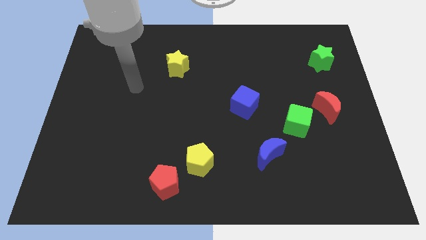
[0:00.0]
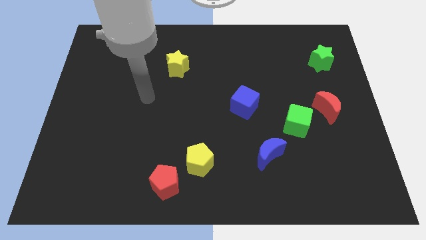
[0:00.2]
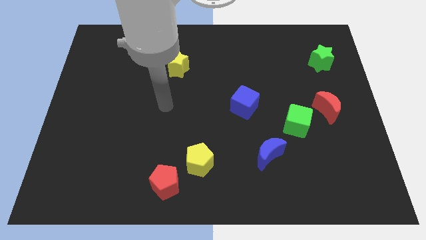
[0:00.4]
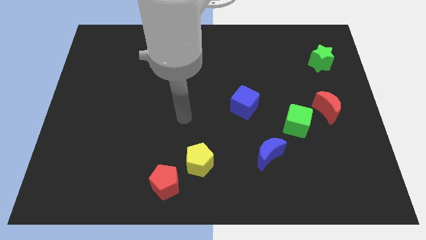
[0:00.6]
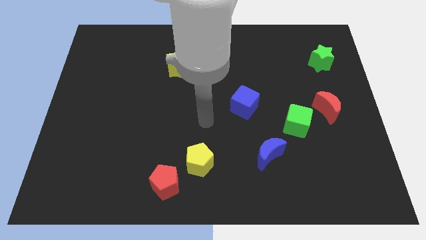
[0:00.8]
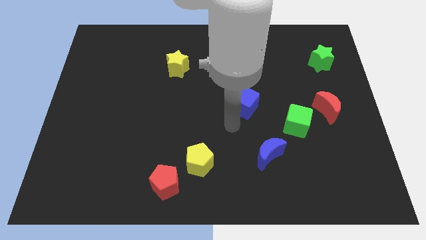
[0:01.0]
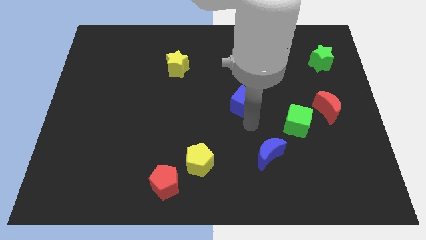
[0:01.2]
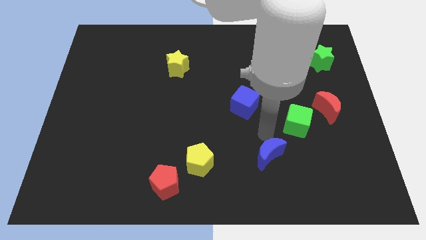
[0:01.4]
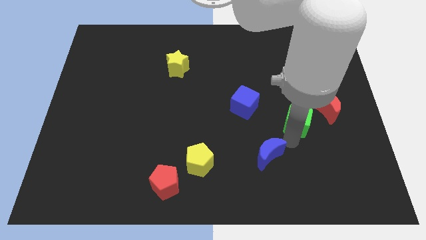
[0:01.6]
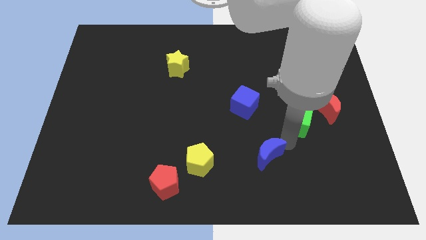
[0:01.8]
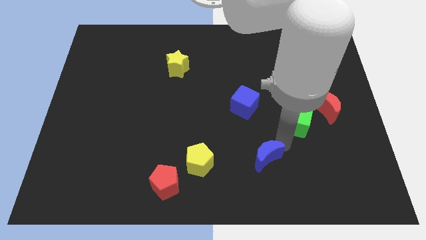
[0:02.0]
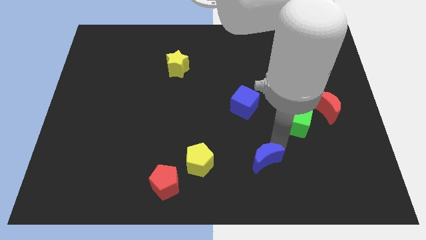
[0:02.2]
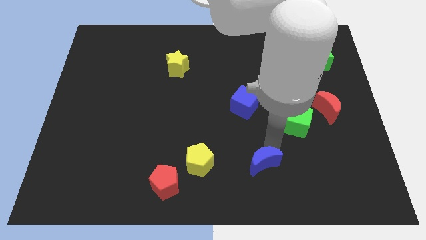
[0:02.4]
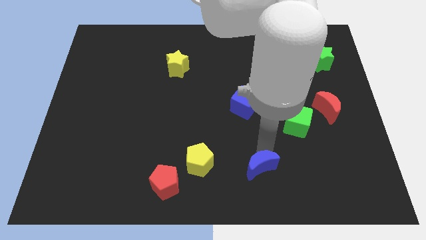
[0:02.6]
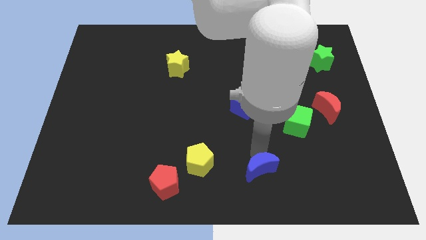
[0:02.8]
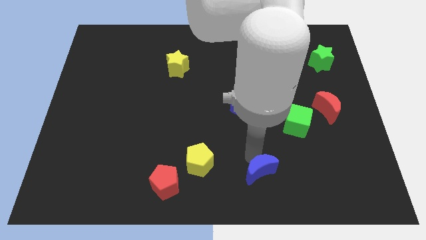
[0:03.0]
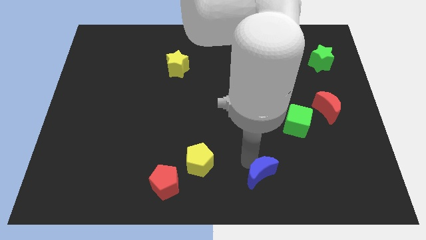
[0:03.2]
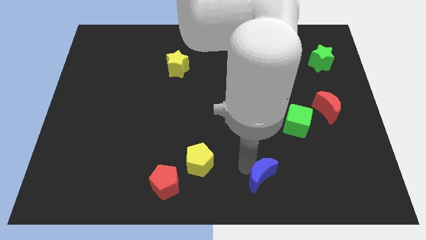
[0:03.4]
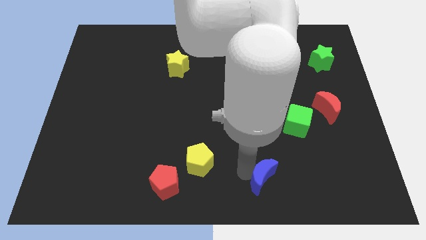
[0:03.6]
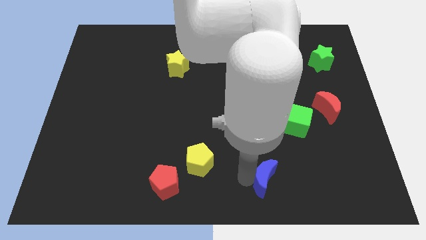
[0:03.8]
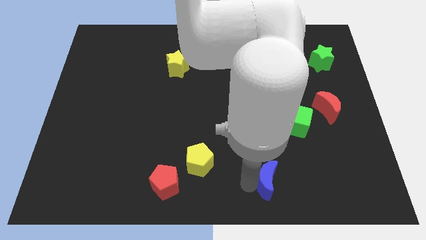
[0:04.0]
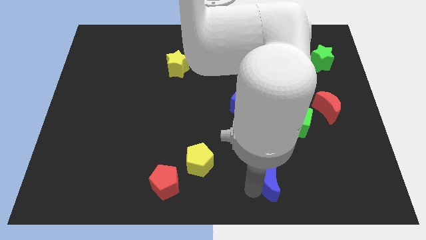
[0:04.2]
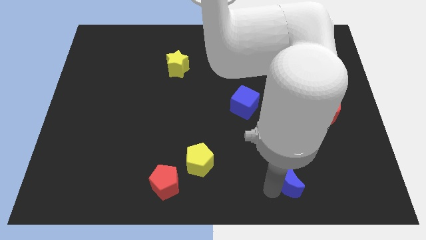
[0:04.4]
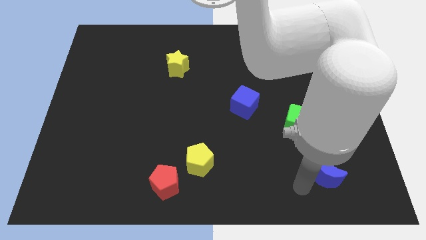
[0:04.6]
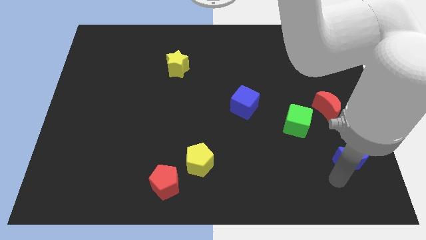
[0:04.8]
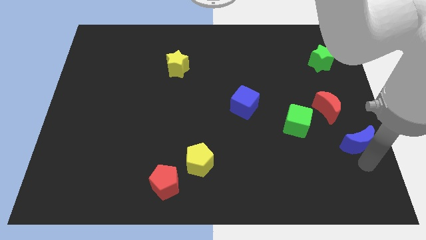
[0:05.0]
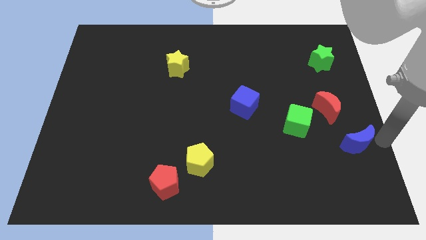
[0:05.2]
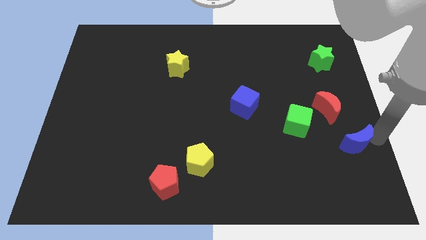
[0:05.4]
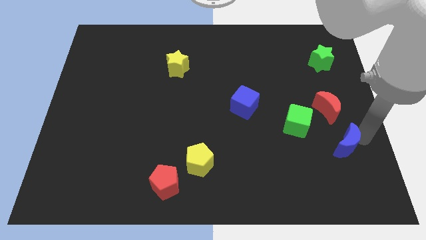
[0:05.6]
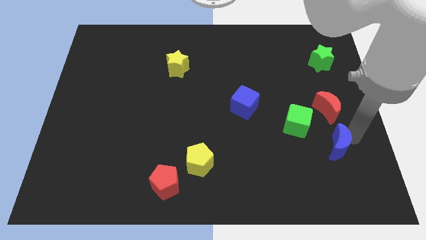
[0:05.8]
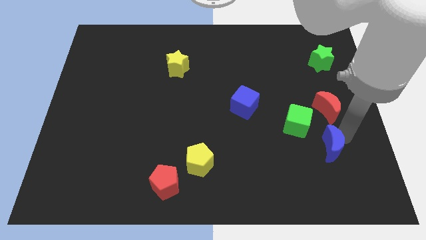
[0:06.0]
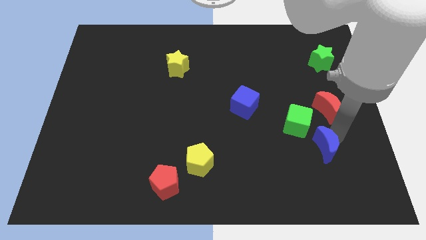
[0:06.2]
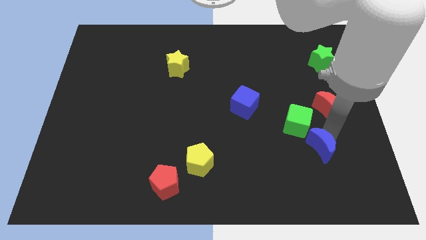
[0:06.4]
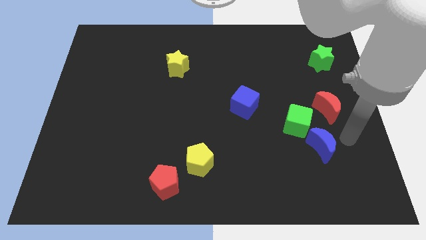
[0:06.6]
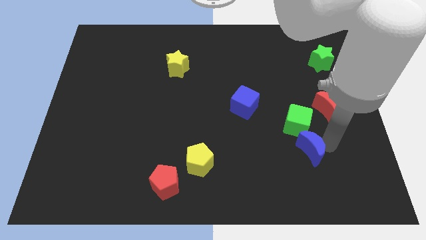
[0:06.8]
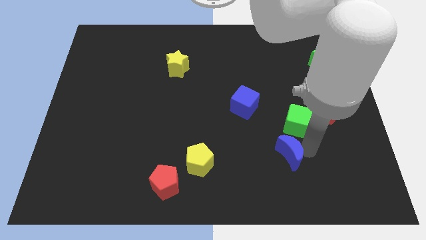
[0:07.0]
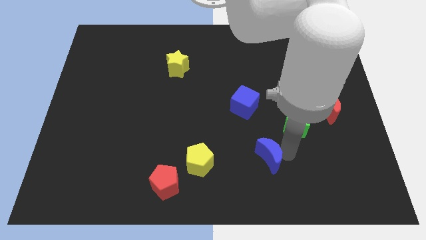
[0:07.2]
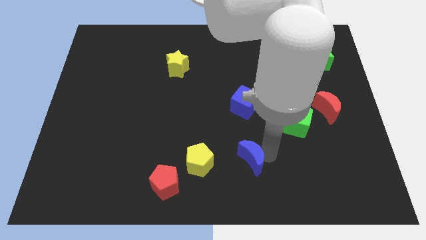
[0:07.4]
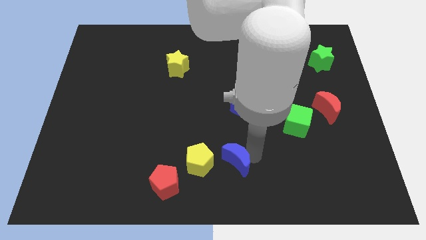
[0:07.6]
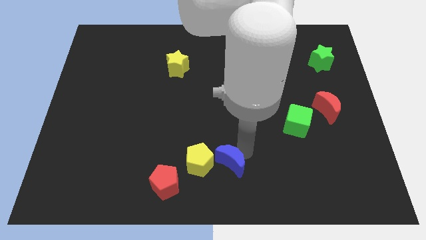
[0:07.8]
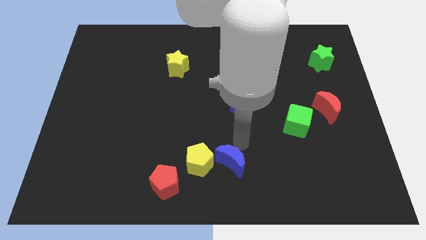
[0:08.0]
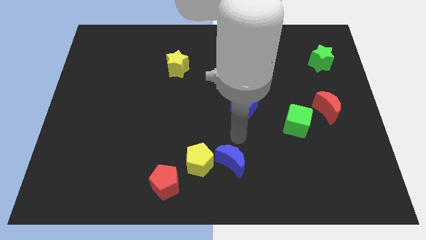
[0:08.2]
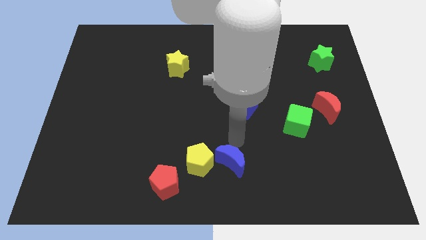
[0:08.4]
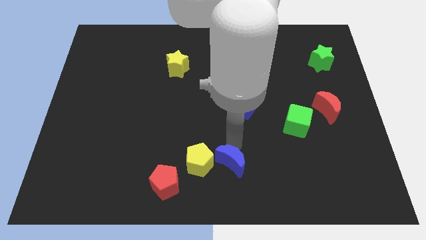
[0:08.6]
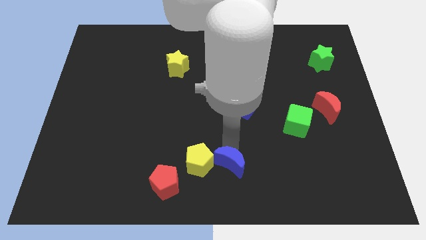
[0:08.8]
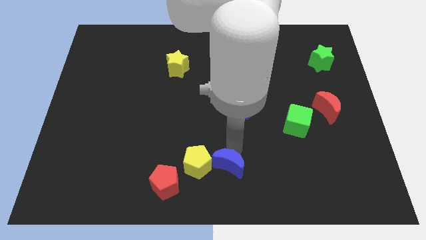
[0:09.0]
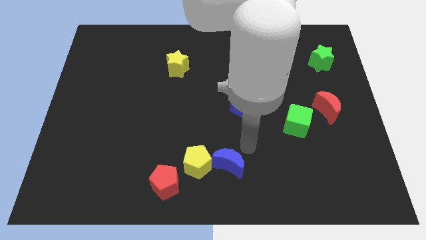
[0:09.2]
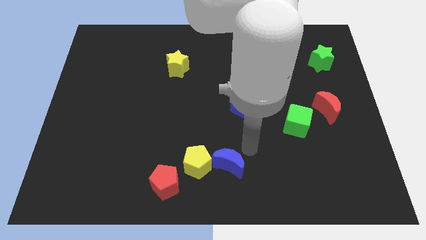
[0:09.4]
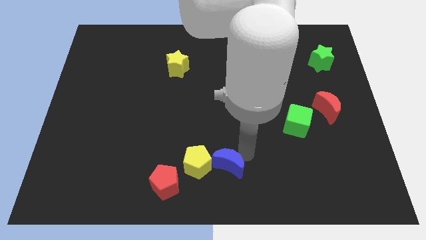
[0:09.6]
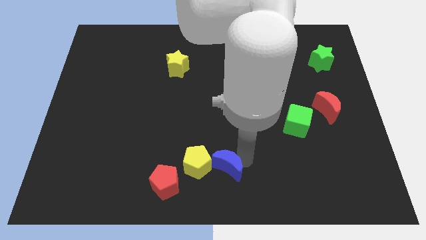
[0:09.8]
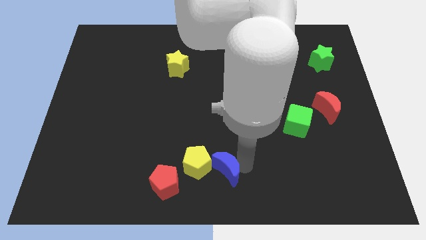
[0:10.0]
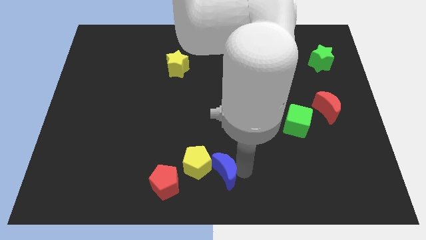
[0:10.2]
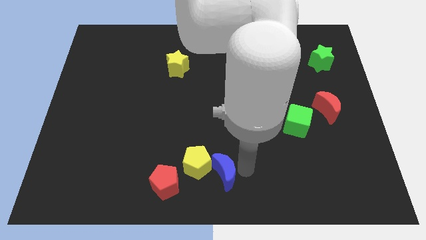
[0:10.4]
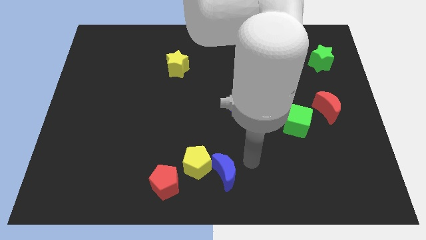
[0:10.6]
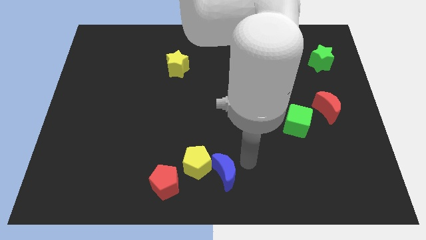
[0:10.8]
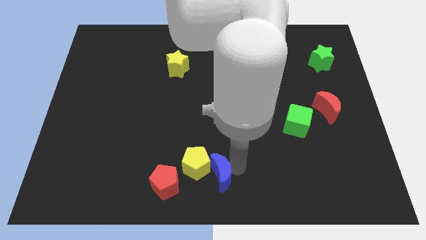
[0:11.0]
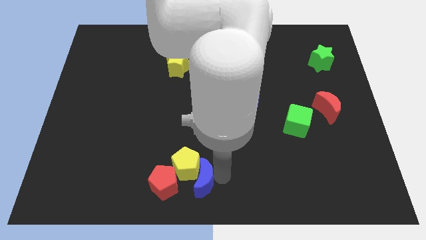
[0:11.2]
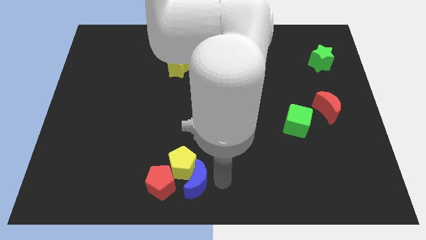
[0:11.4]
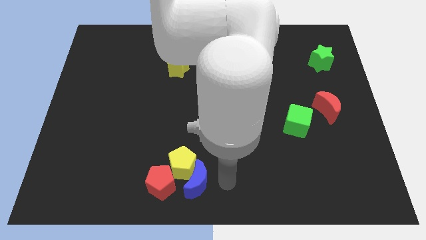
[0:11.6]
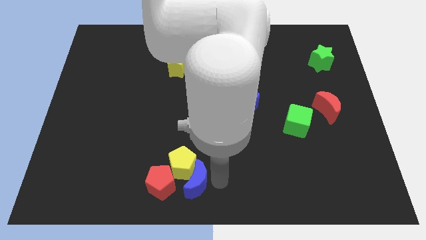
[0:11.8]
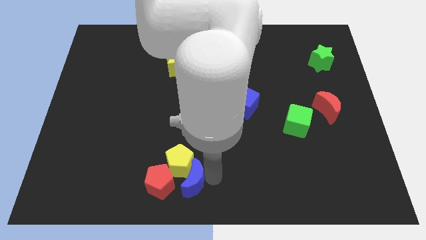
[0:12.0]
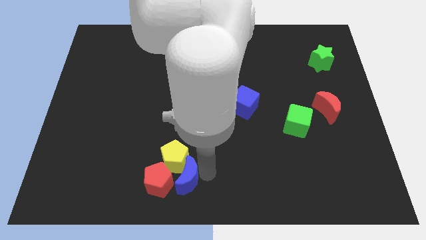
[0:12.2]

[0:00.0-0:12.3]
slide the blue moon next to the red pentagon

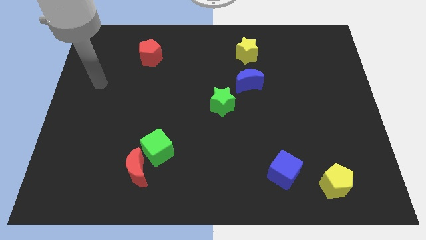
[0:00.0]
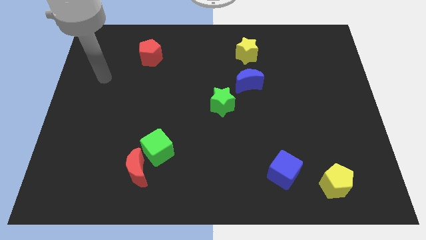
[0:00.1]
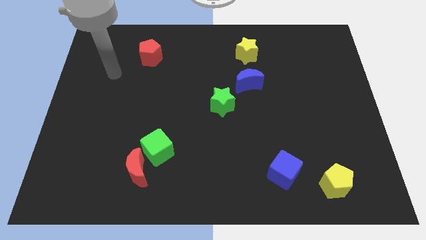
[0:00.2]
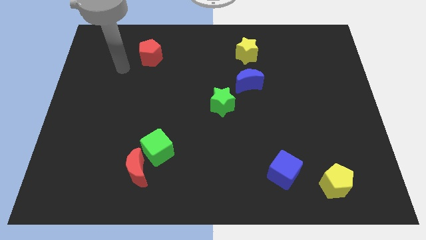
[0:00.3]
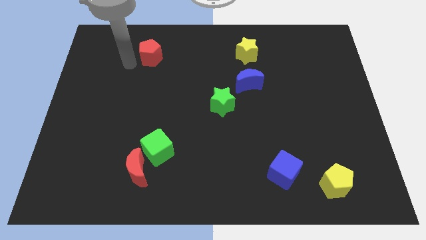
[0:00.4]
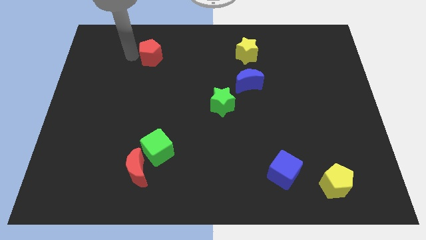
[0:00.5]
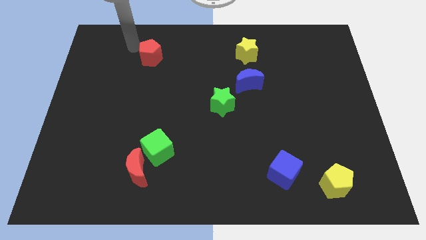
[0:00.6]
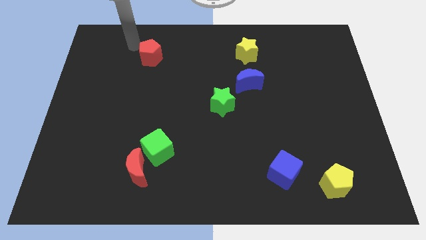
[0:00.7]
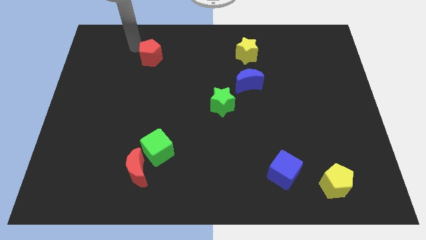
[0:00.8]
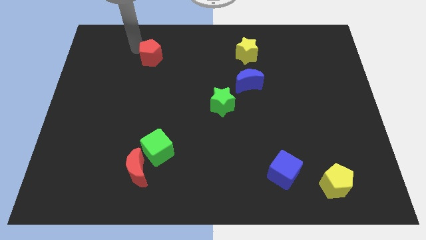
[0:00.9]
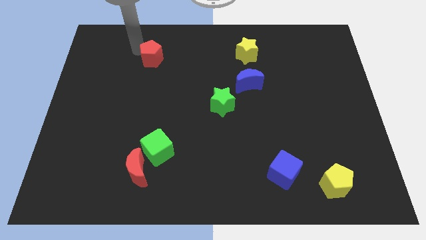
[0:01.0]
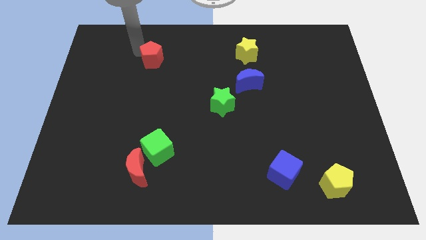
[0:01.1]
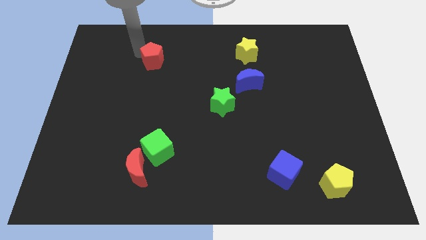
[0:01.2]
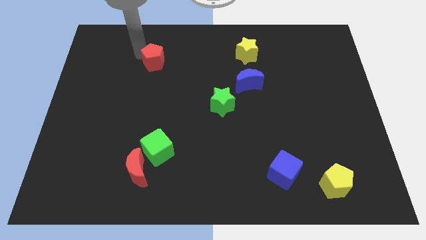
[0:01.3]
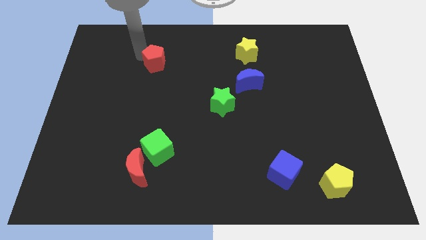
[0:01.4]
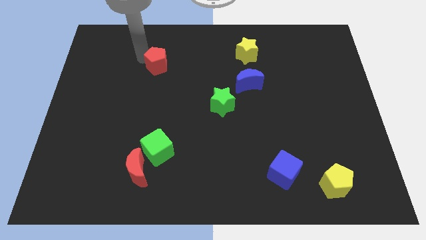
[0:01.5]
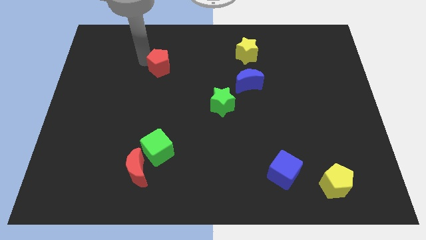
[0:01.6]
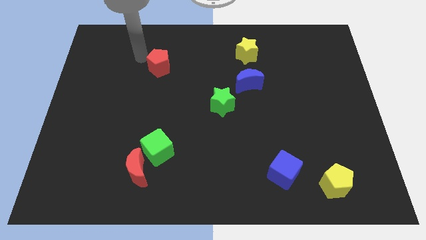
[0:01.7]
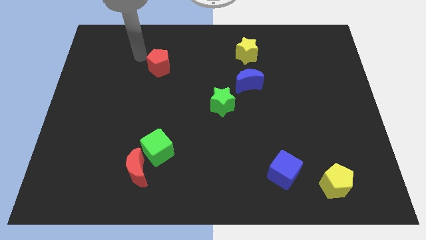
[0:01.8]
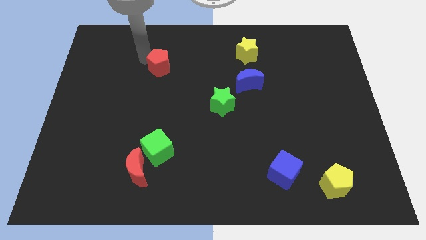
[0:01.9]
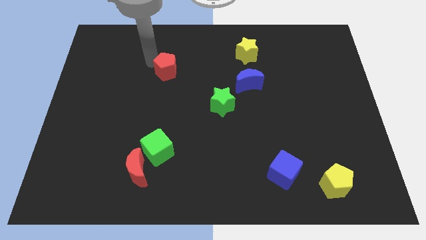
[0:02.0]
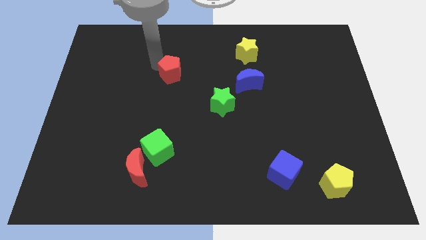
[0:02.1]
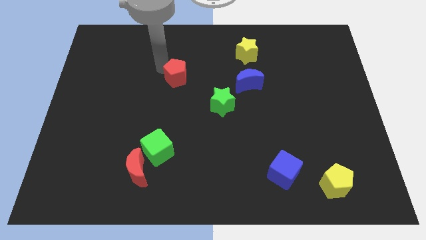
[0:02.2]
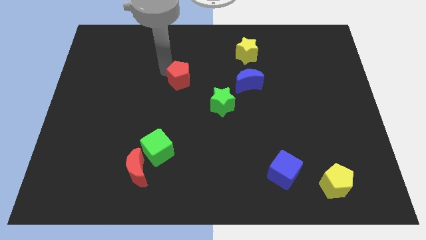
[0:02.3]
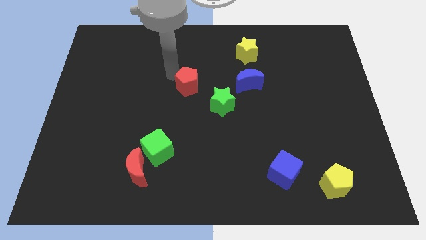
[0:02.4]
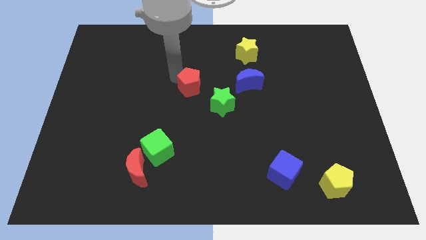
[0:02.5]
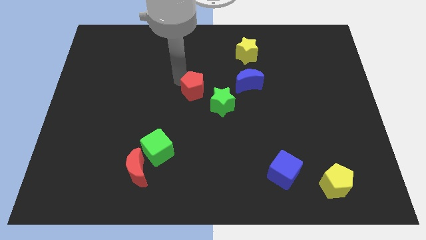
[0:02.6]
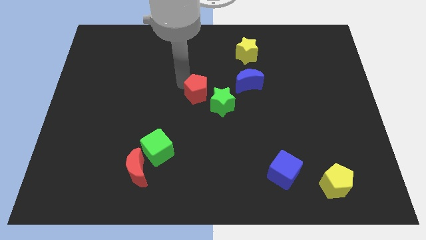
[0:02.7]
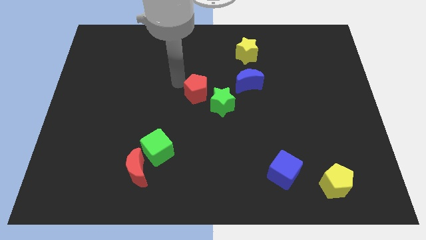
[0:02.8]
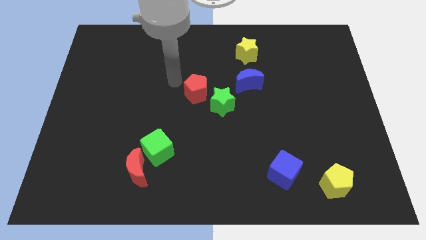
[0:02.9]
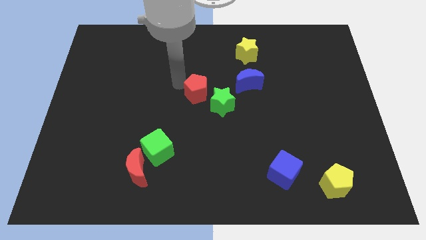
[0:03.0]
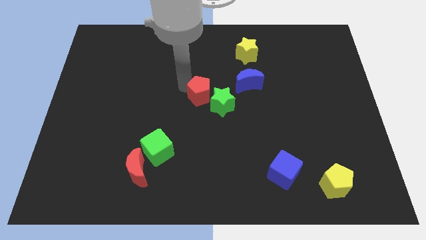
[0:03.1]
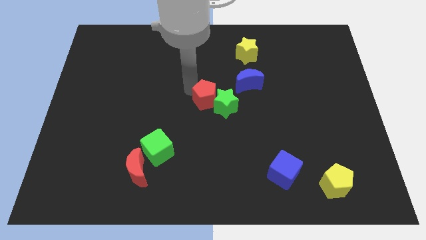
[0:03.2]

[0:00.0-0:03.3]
push the red pentagon to the green star
